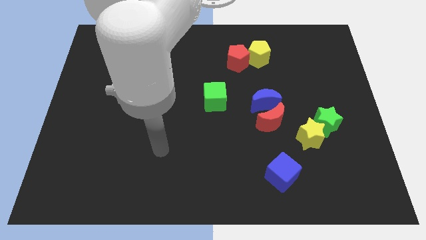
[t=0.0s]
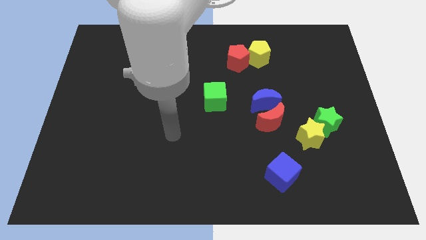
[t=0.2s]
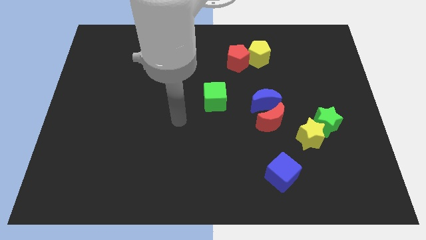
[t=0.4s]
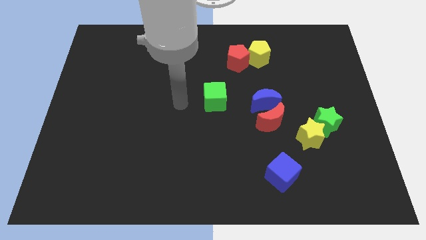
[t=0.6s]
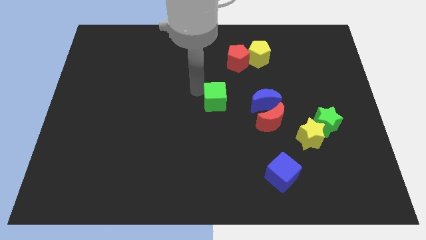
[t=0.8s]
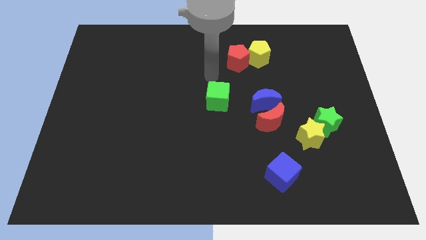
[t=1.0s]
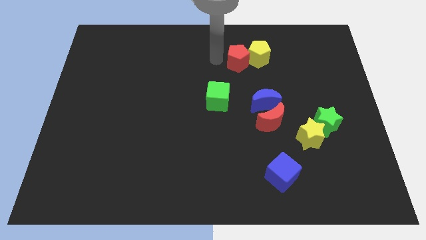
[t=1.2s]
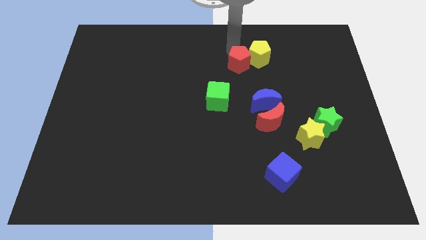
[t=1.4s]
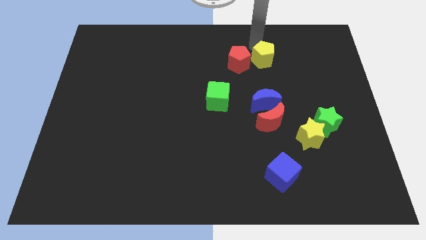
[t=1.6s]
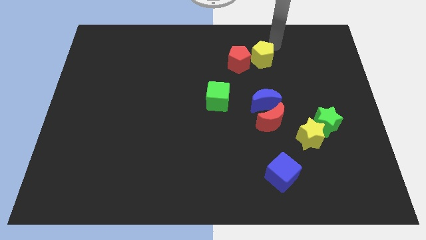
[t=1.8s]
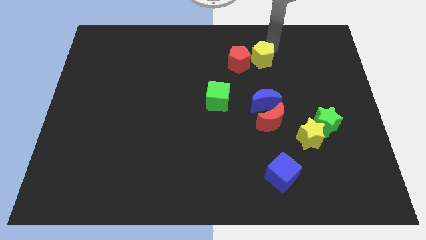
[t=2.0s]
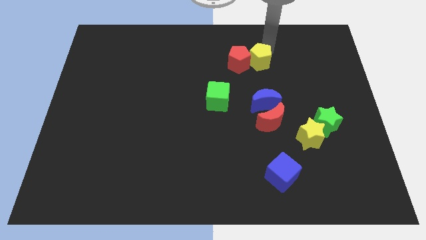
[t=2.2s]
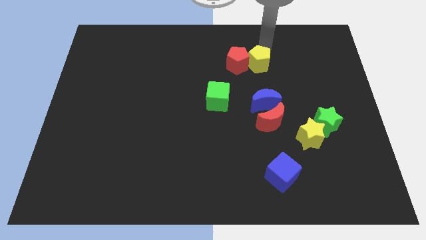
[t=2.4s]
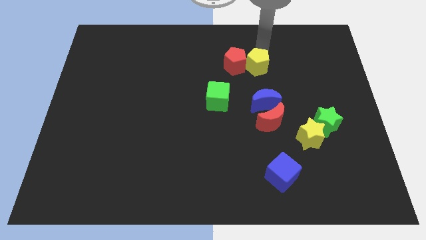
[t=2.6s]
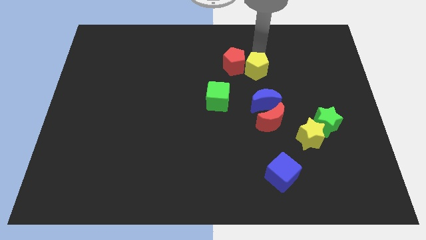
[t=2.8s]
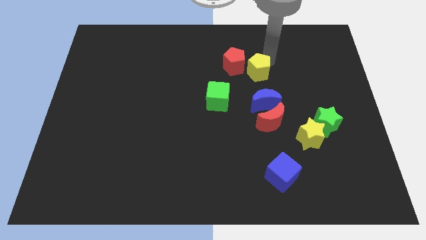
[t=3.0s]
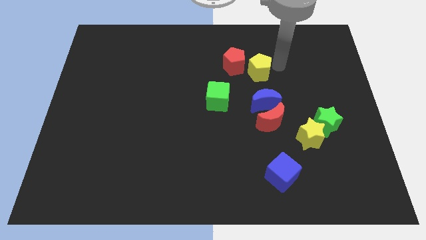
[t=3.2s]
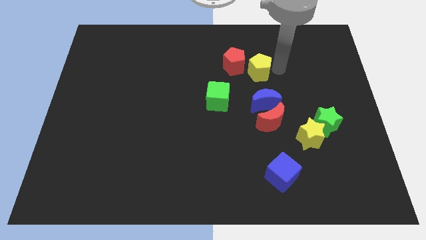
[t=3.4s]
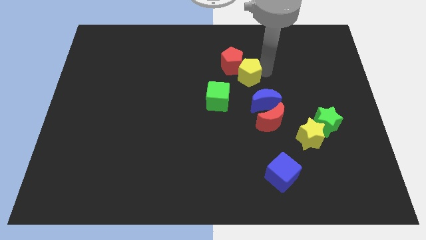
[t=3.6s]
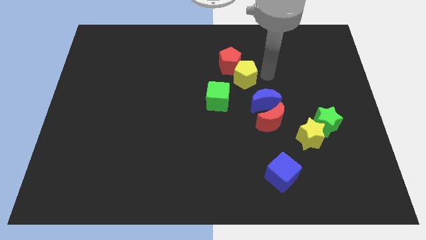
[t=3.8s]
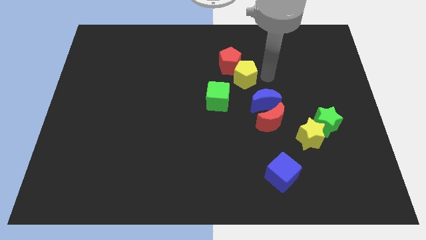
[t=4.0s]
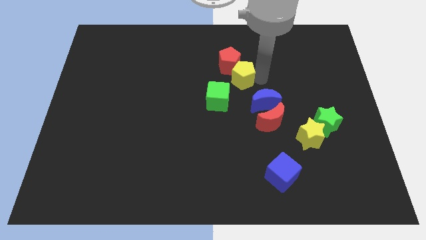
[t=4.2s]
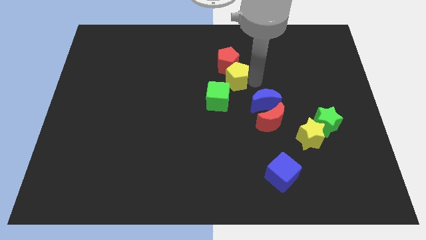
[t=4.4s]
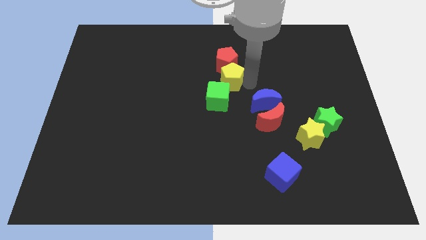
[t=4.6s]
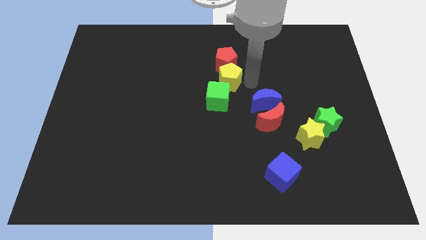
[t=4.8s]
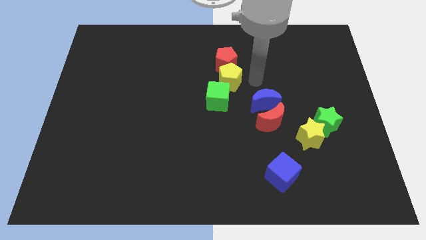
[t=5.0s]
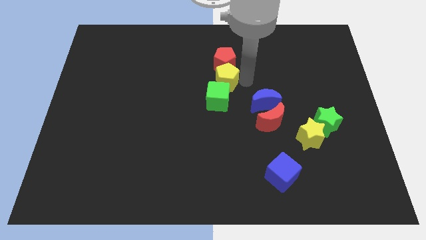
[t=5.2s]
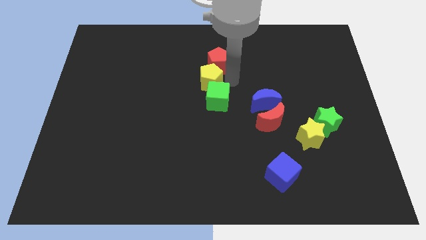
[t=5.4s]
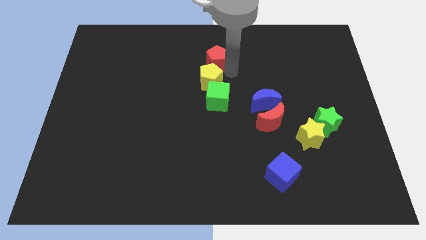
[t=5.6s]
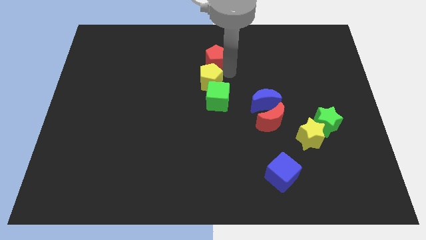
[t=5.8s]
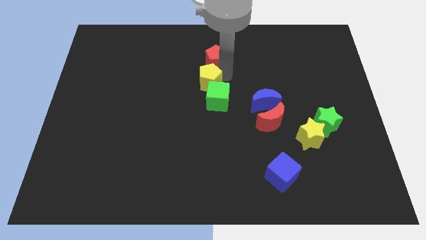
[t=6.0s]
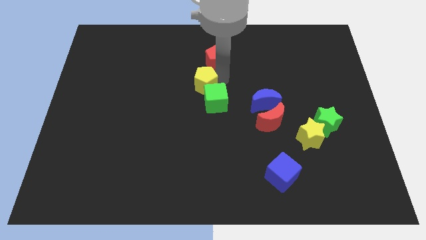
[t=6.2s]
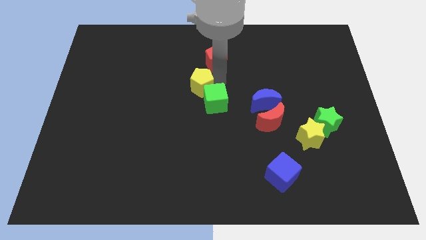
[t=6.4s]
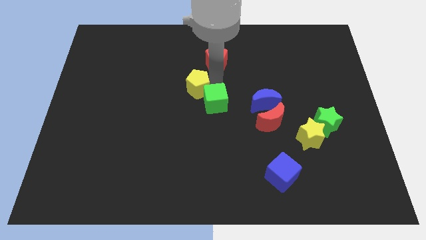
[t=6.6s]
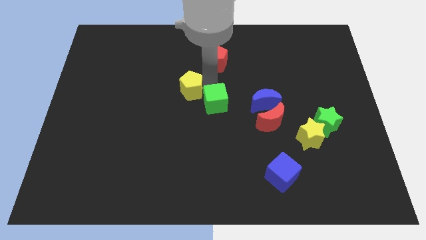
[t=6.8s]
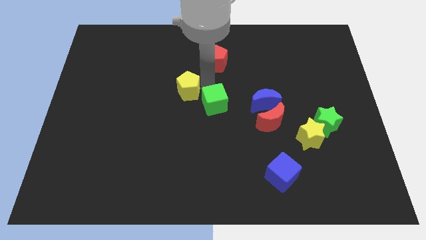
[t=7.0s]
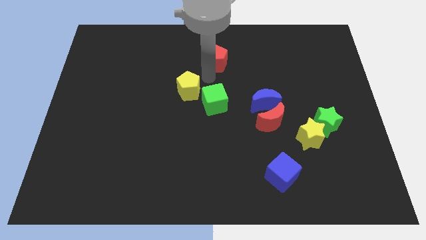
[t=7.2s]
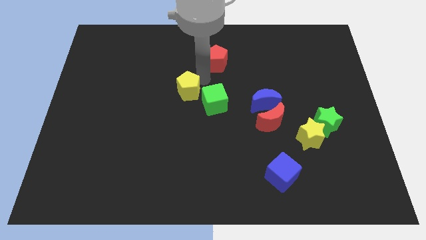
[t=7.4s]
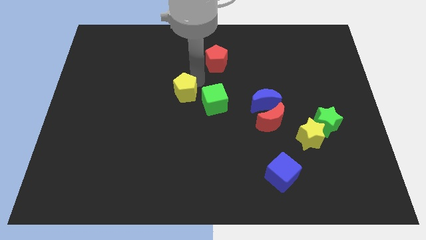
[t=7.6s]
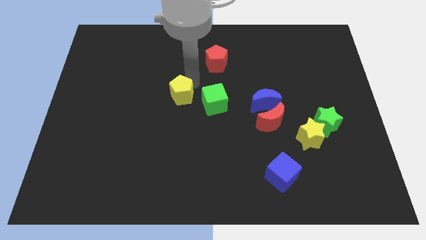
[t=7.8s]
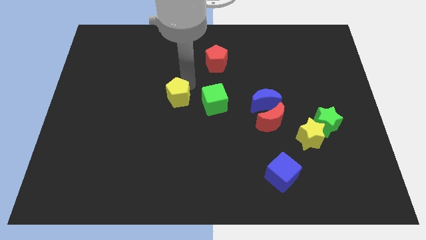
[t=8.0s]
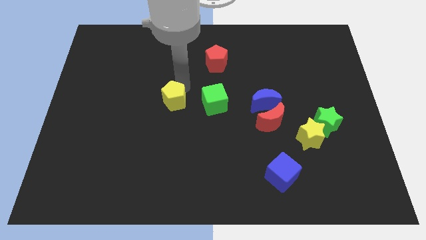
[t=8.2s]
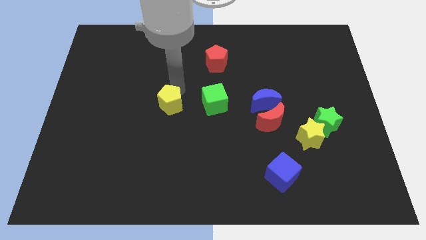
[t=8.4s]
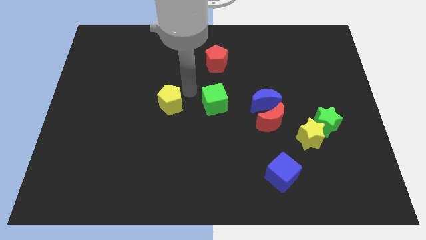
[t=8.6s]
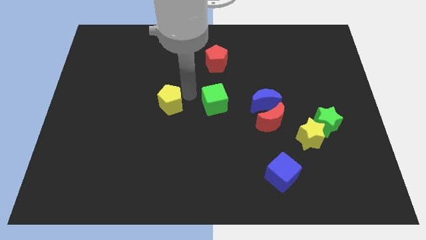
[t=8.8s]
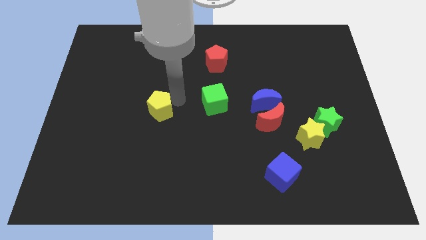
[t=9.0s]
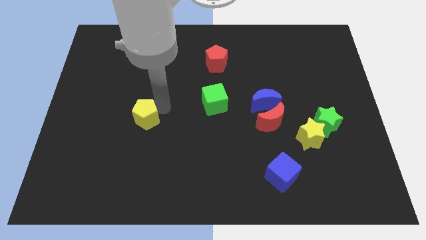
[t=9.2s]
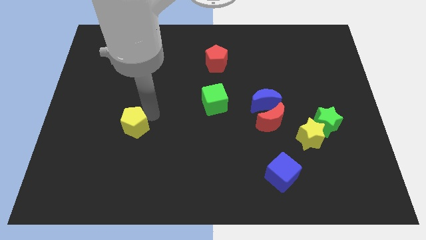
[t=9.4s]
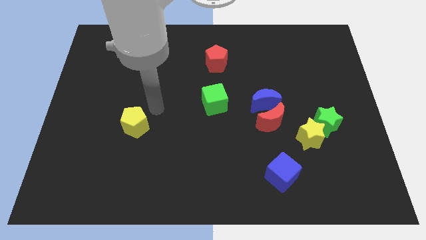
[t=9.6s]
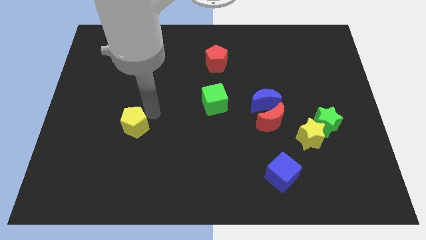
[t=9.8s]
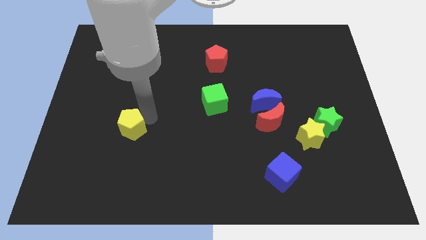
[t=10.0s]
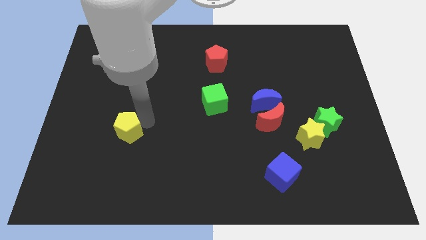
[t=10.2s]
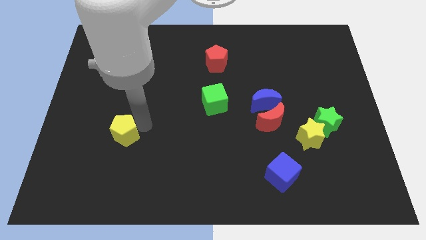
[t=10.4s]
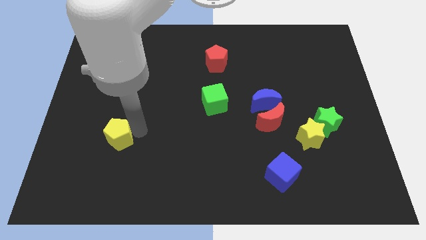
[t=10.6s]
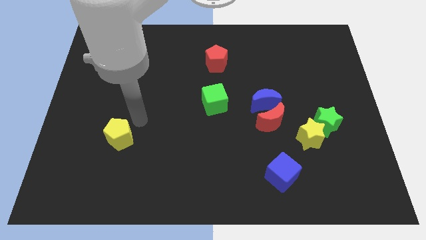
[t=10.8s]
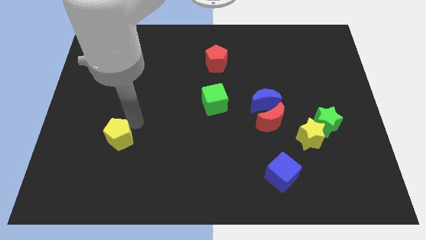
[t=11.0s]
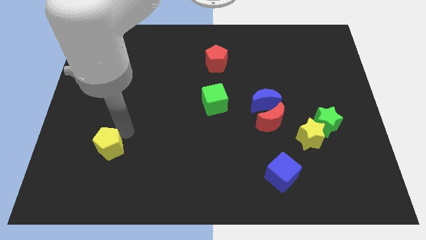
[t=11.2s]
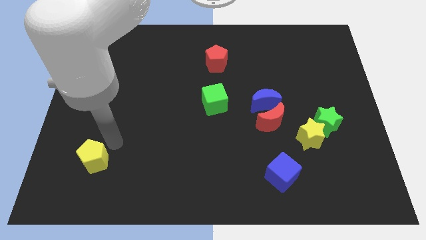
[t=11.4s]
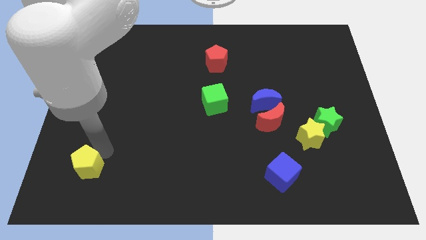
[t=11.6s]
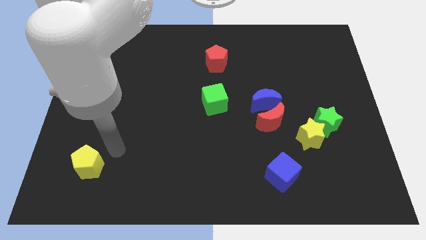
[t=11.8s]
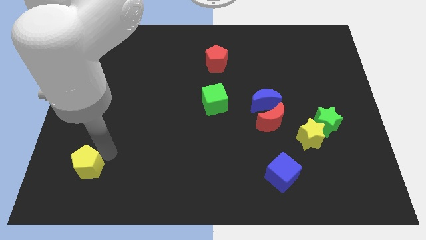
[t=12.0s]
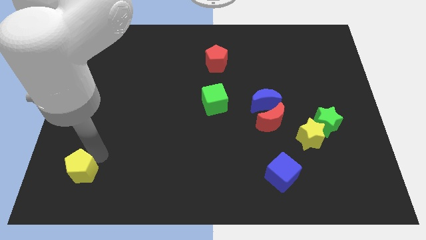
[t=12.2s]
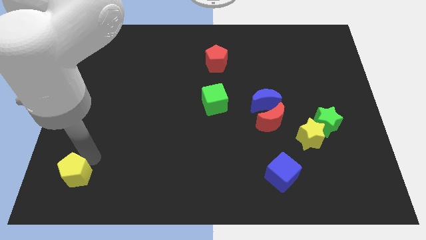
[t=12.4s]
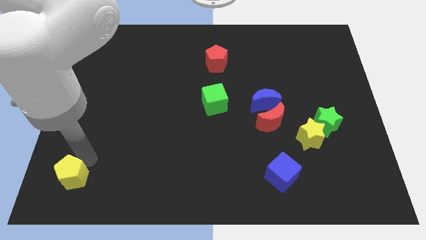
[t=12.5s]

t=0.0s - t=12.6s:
put the yellow pentagon to the lower left corner

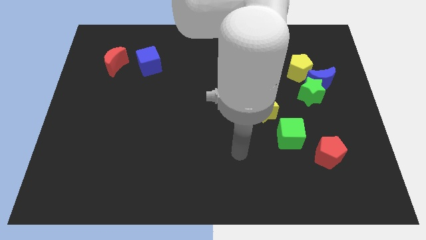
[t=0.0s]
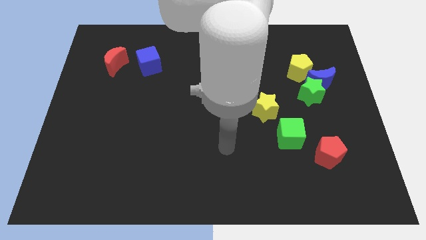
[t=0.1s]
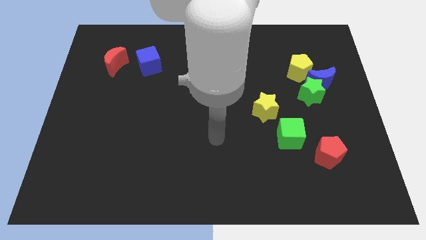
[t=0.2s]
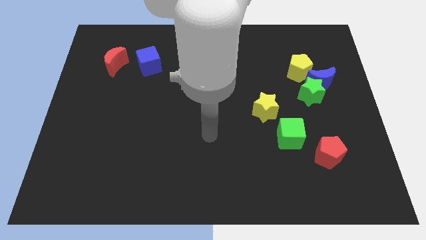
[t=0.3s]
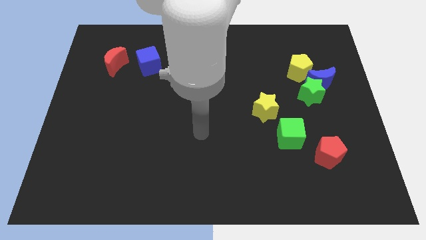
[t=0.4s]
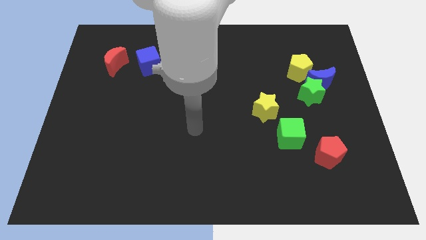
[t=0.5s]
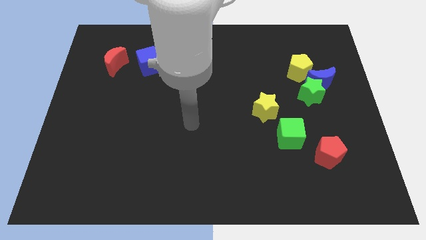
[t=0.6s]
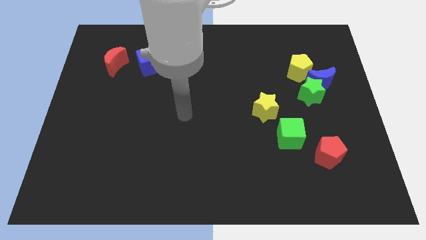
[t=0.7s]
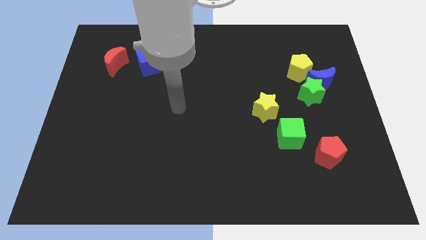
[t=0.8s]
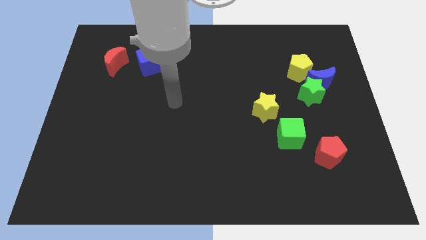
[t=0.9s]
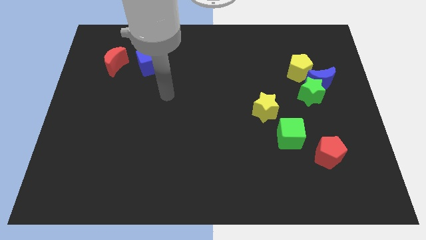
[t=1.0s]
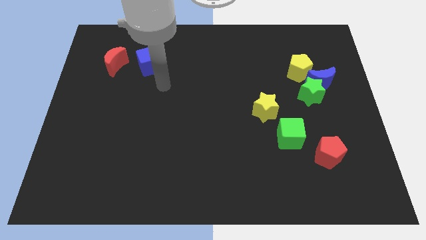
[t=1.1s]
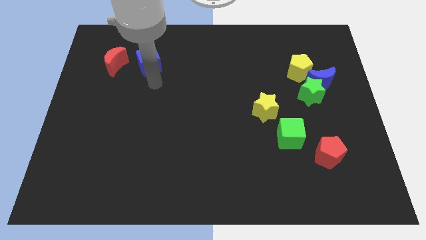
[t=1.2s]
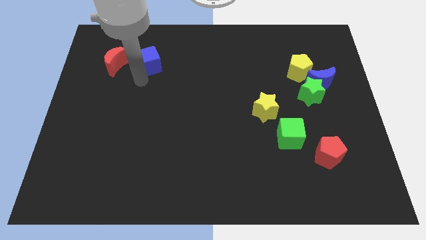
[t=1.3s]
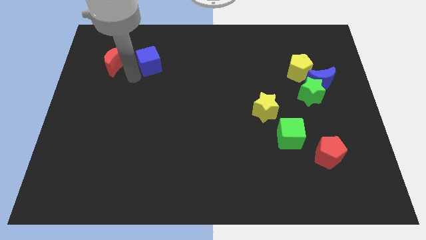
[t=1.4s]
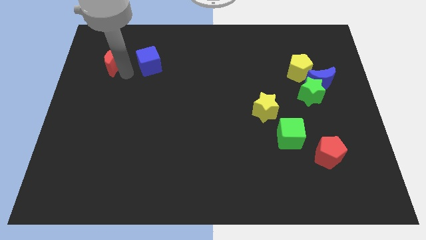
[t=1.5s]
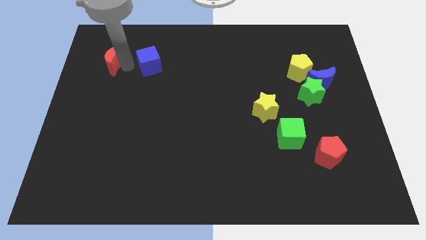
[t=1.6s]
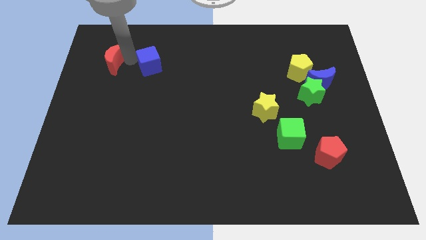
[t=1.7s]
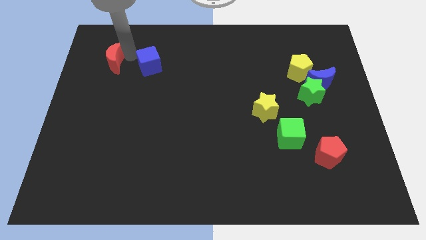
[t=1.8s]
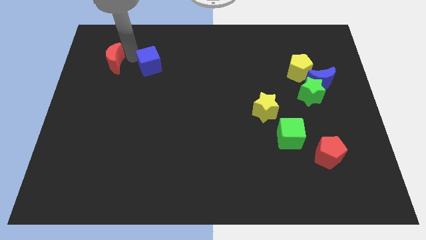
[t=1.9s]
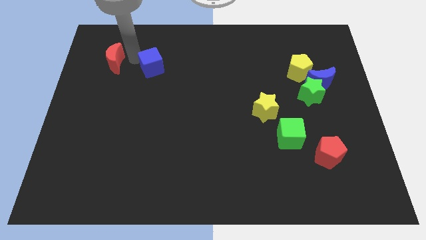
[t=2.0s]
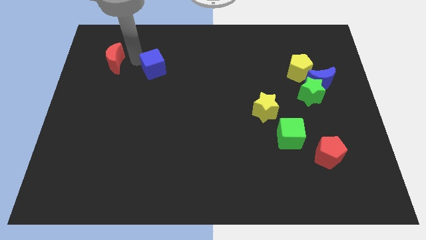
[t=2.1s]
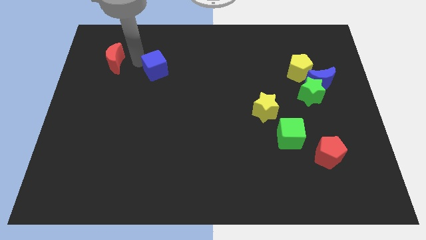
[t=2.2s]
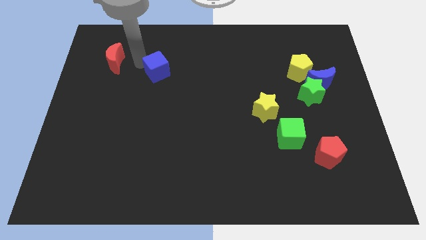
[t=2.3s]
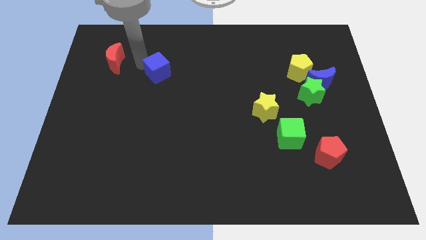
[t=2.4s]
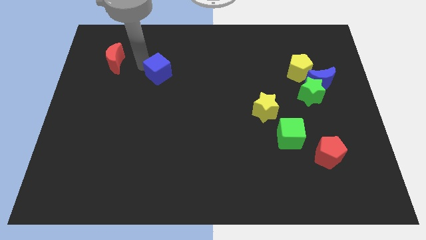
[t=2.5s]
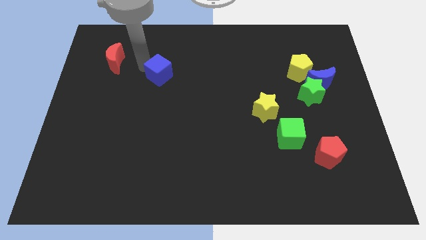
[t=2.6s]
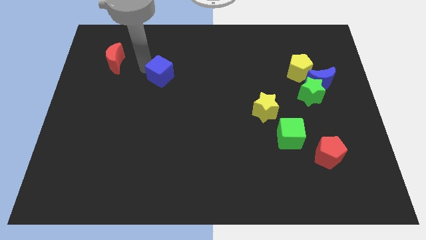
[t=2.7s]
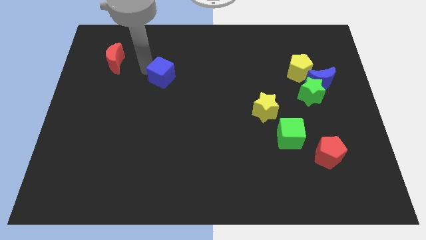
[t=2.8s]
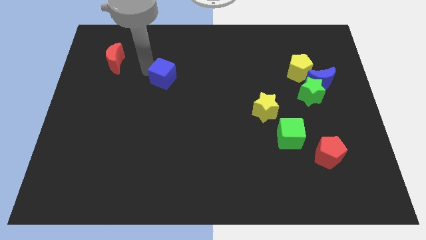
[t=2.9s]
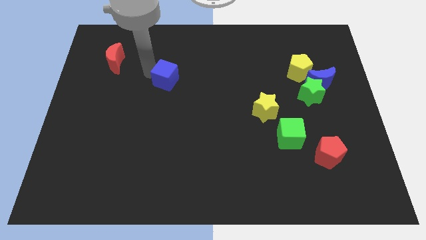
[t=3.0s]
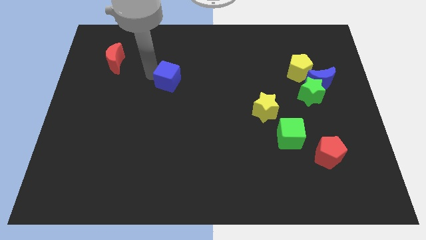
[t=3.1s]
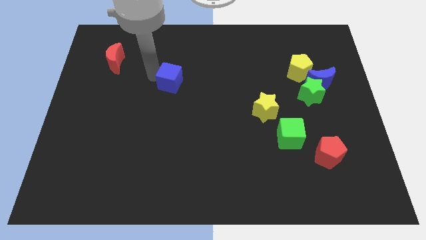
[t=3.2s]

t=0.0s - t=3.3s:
move the blue cube to the middle
